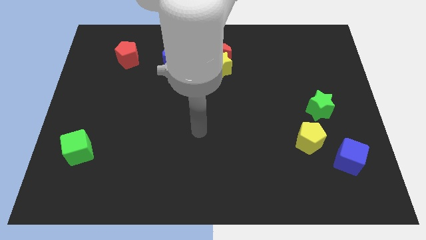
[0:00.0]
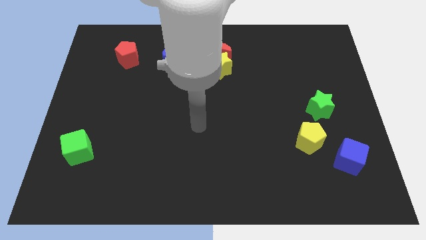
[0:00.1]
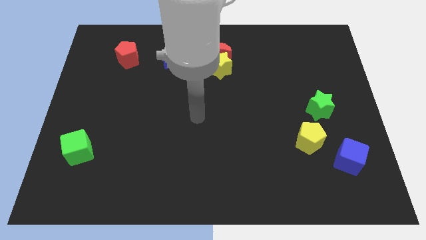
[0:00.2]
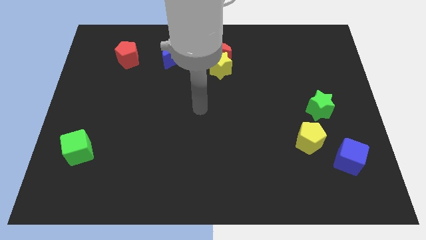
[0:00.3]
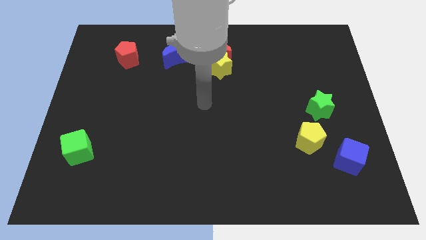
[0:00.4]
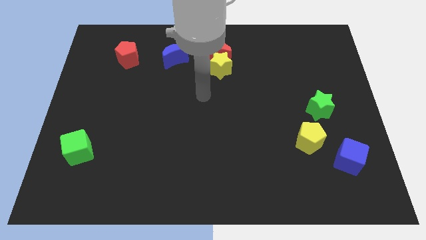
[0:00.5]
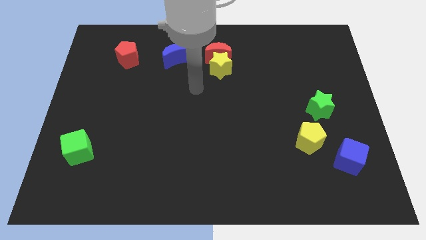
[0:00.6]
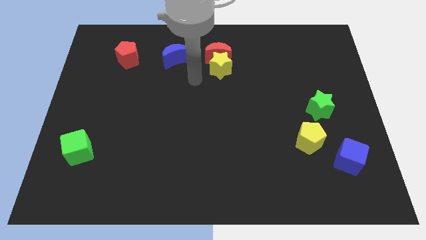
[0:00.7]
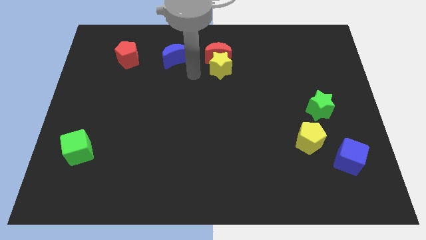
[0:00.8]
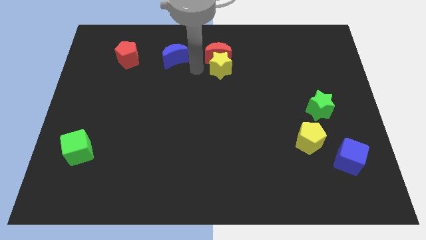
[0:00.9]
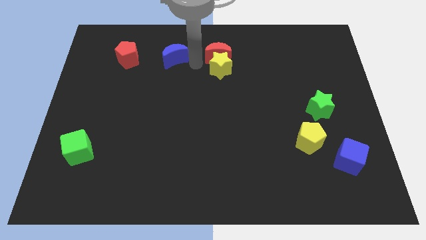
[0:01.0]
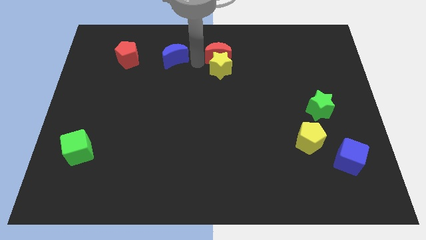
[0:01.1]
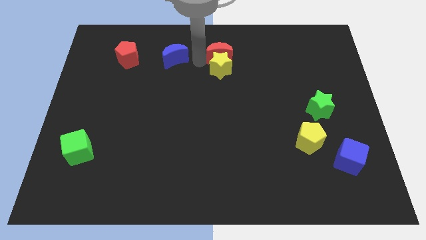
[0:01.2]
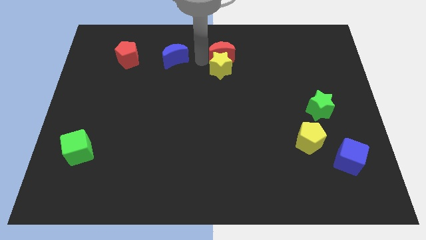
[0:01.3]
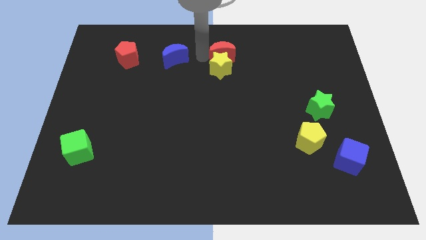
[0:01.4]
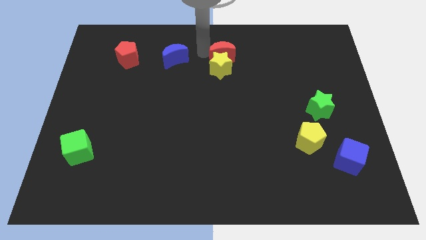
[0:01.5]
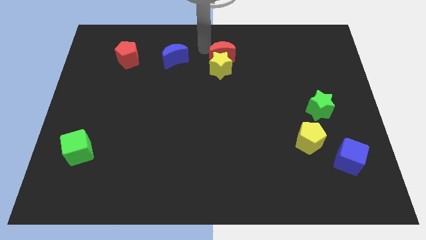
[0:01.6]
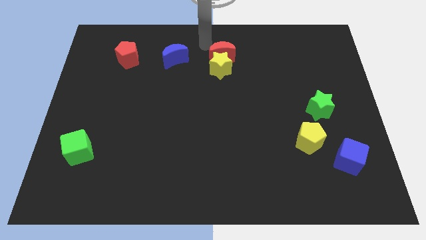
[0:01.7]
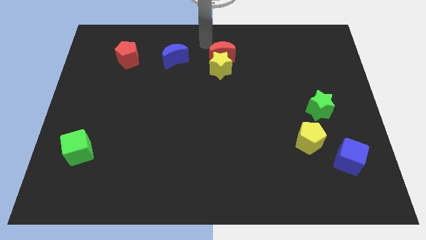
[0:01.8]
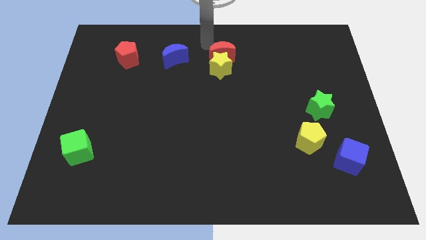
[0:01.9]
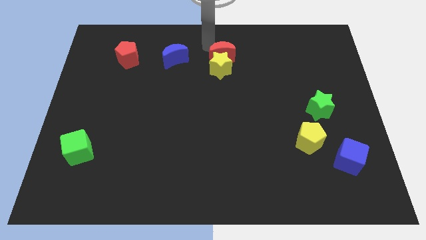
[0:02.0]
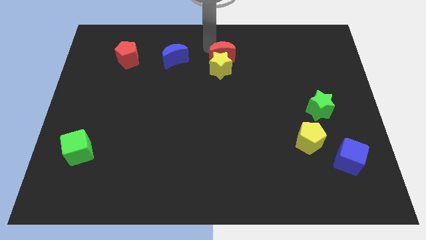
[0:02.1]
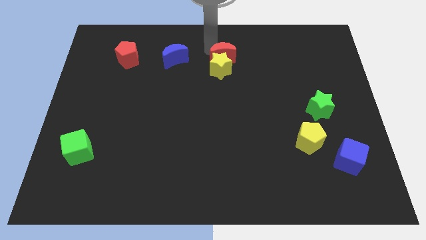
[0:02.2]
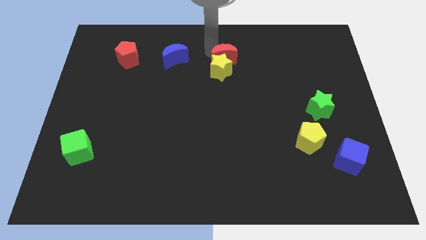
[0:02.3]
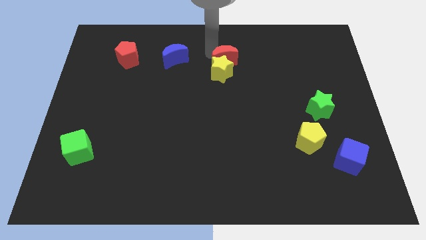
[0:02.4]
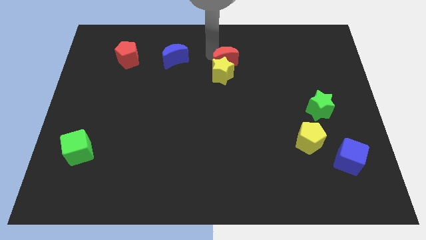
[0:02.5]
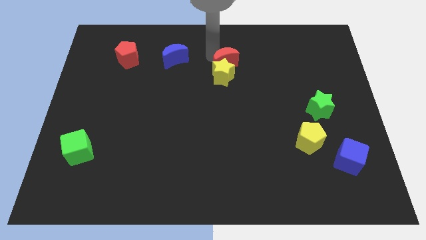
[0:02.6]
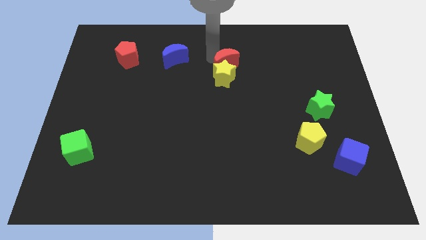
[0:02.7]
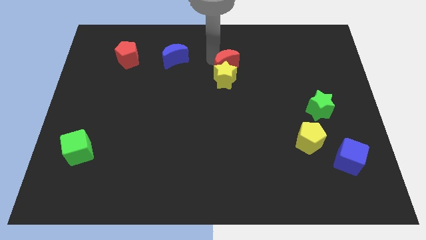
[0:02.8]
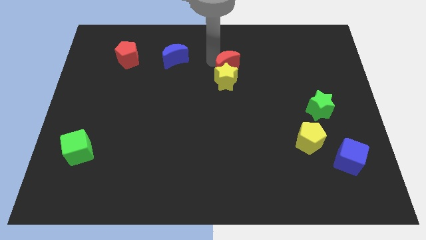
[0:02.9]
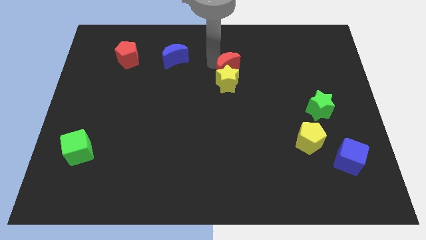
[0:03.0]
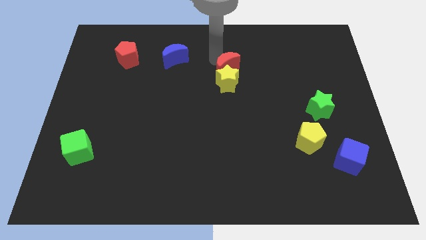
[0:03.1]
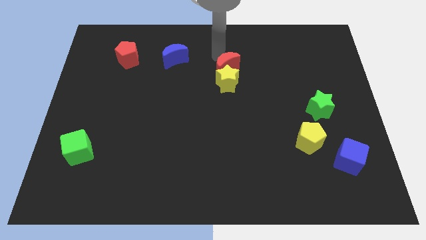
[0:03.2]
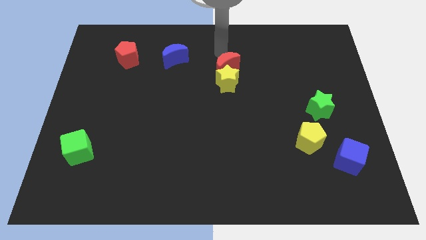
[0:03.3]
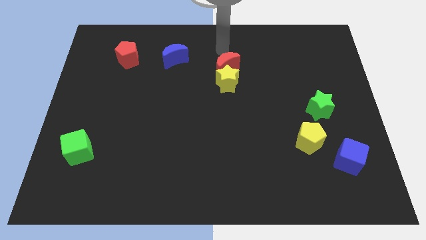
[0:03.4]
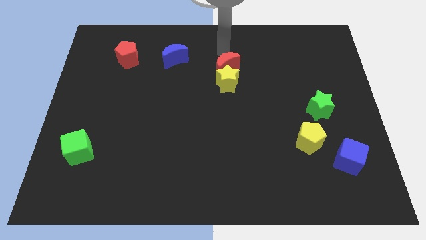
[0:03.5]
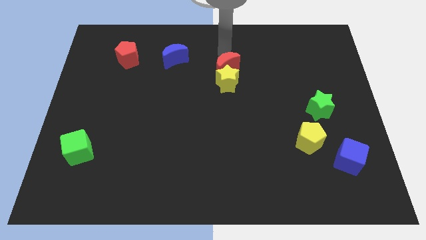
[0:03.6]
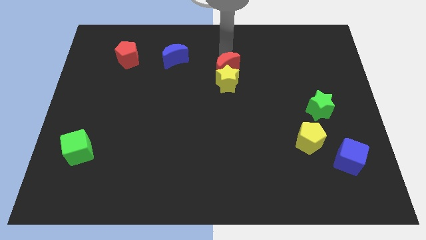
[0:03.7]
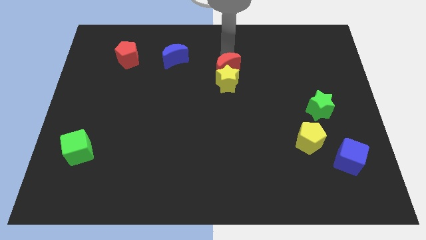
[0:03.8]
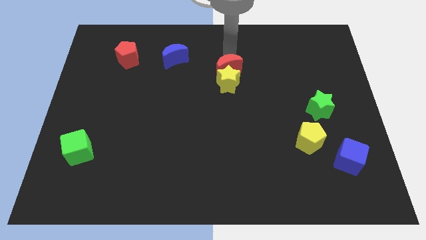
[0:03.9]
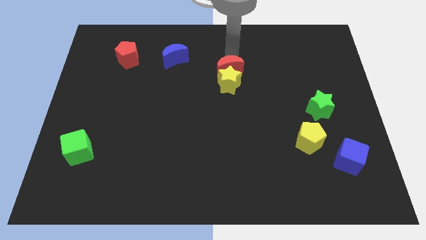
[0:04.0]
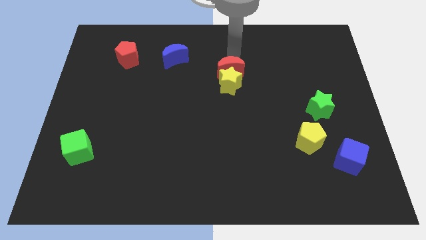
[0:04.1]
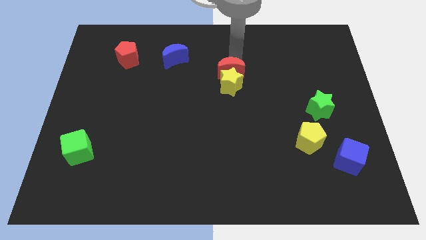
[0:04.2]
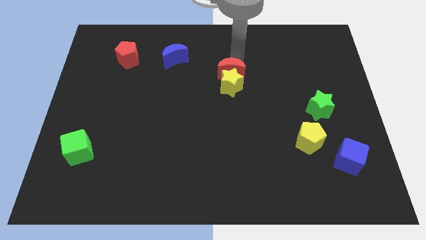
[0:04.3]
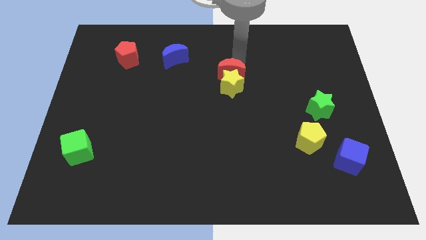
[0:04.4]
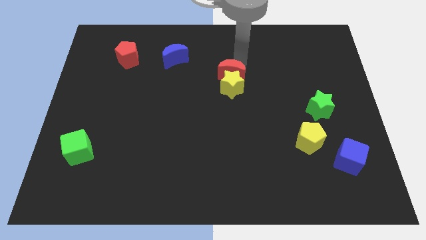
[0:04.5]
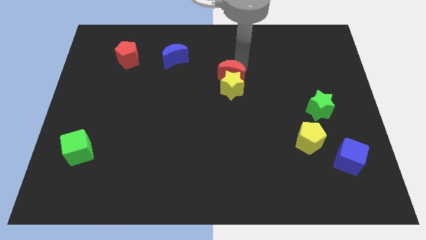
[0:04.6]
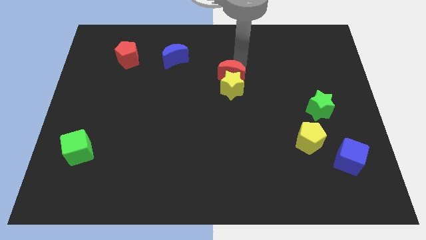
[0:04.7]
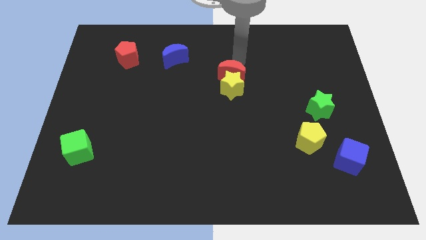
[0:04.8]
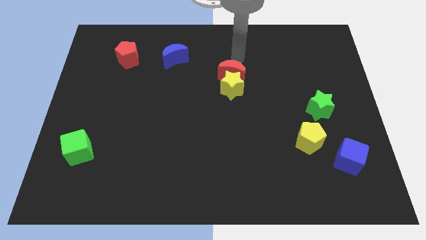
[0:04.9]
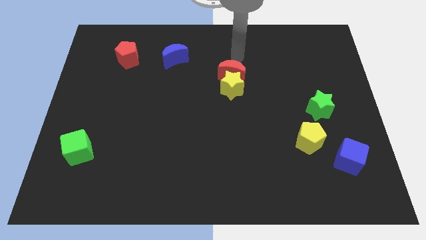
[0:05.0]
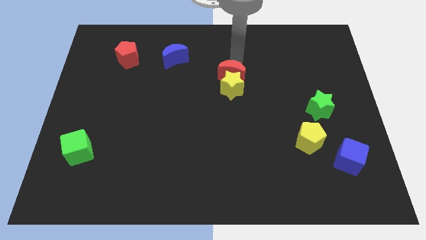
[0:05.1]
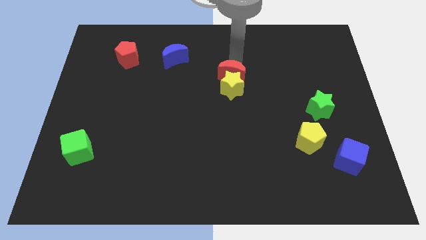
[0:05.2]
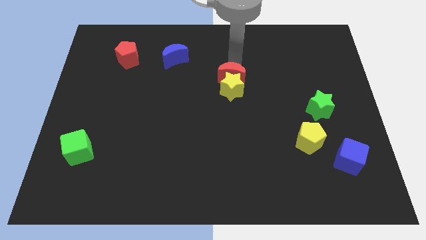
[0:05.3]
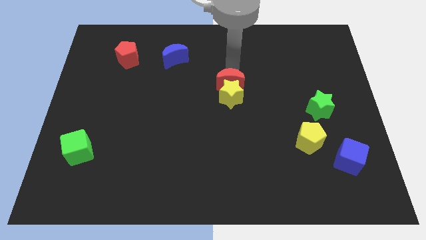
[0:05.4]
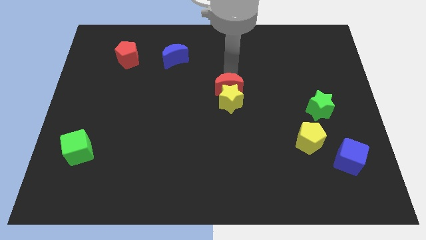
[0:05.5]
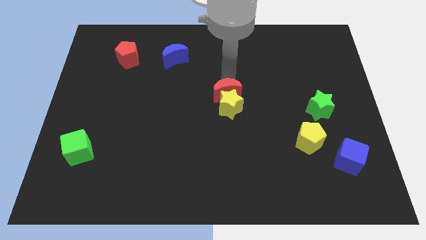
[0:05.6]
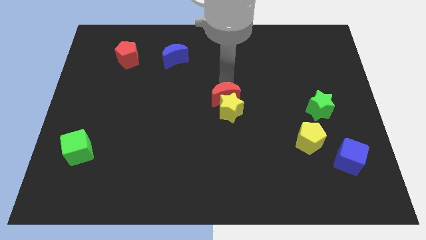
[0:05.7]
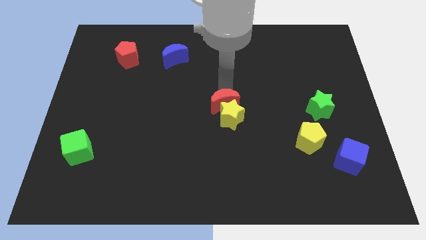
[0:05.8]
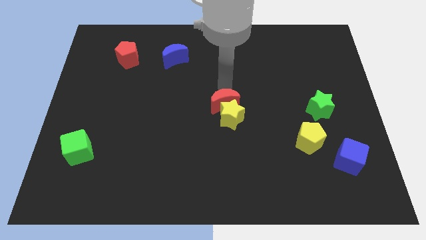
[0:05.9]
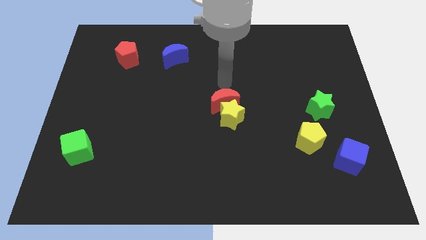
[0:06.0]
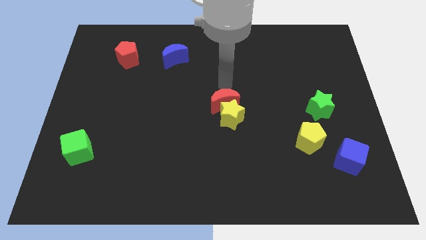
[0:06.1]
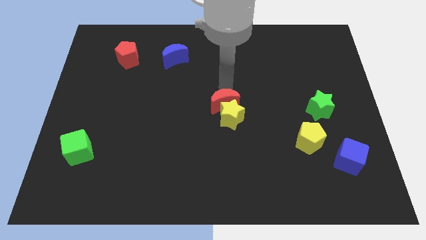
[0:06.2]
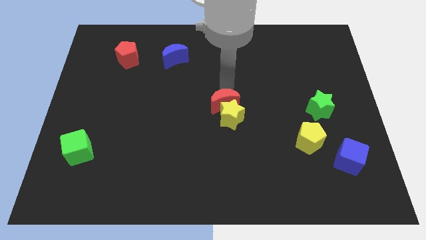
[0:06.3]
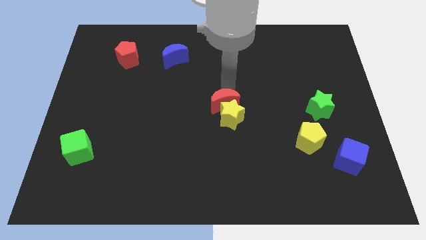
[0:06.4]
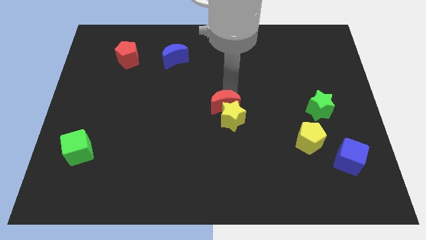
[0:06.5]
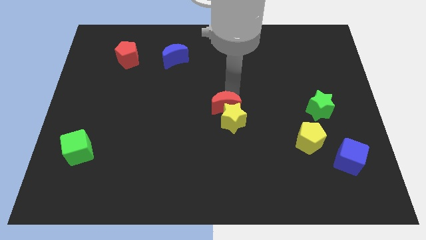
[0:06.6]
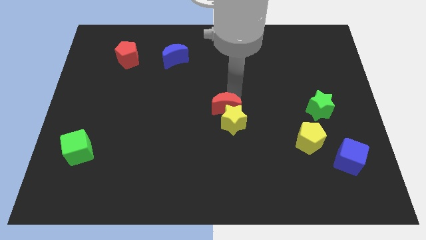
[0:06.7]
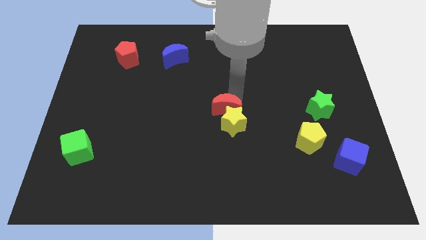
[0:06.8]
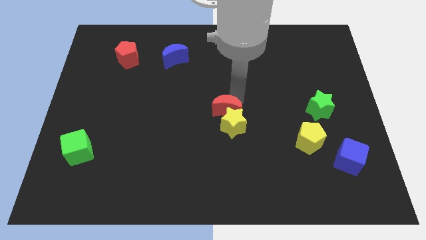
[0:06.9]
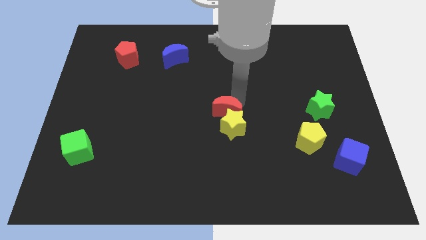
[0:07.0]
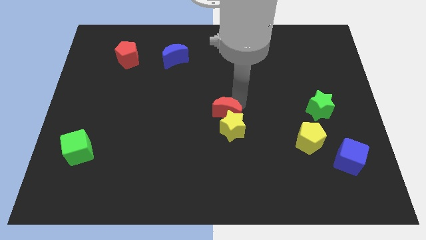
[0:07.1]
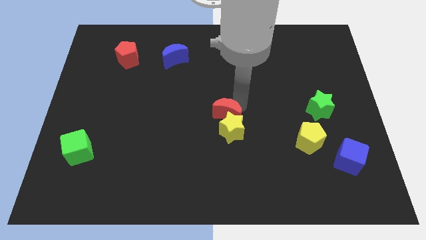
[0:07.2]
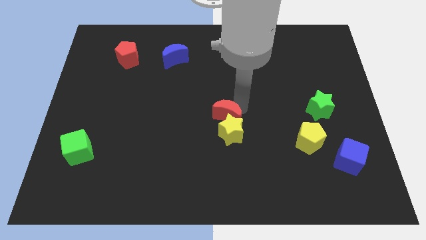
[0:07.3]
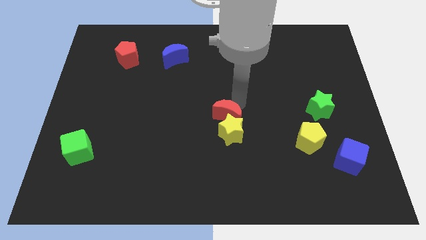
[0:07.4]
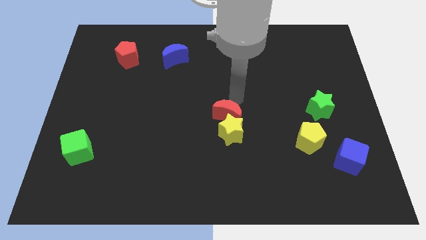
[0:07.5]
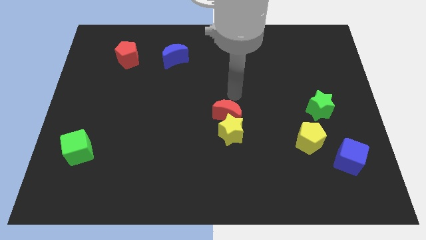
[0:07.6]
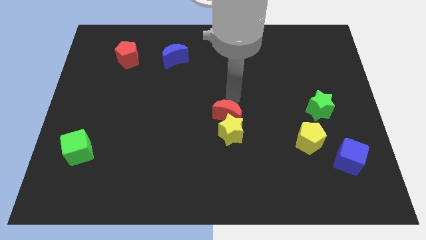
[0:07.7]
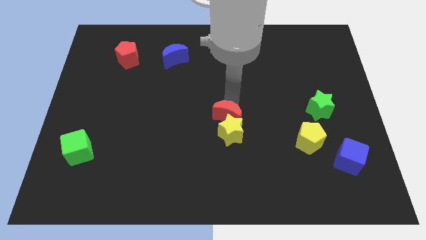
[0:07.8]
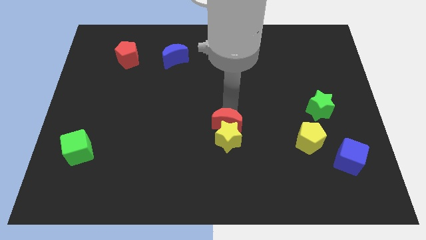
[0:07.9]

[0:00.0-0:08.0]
slide the red moon down
